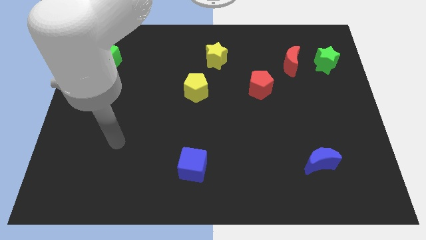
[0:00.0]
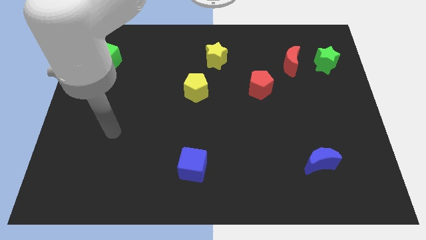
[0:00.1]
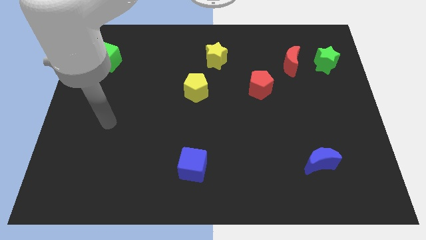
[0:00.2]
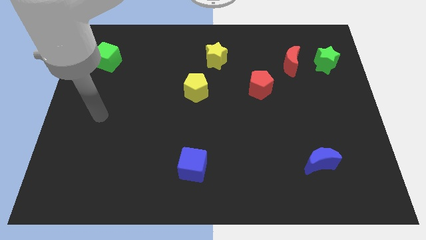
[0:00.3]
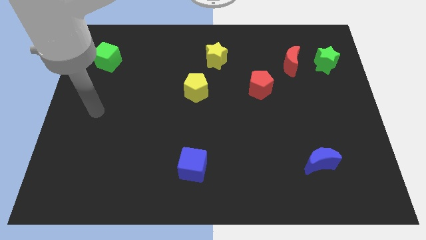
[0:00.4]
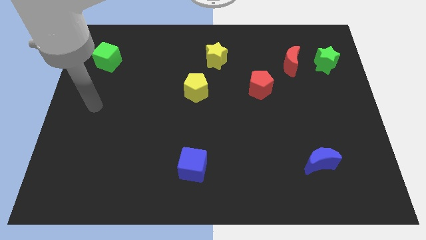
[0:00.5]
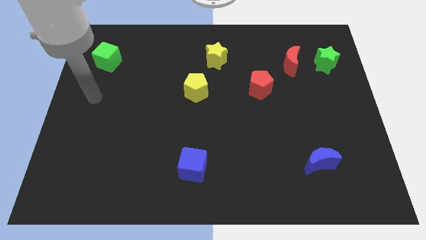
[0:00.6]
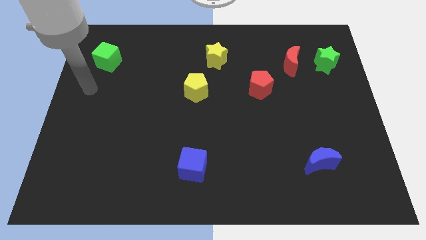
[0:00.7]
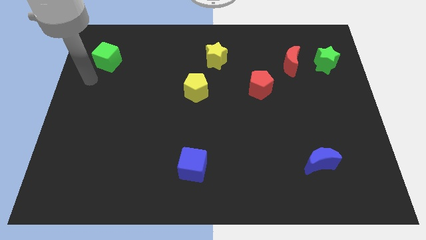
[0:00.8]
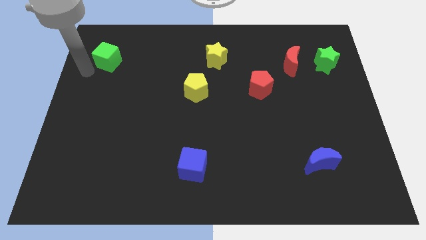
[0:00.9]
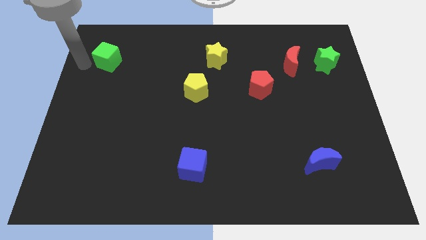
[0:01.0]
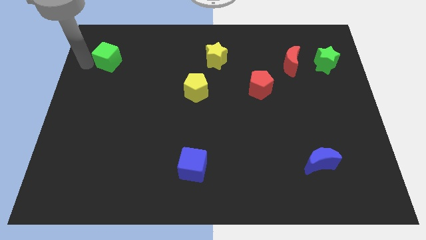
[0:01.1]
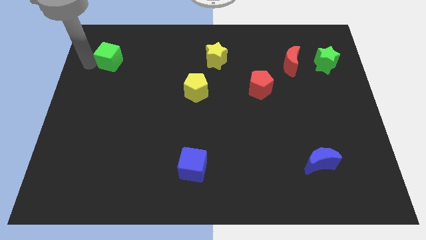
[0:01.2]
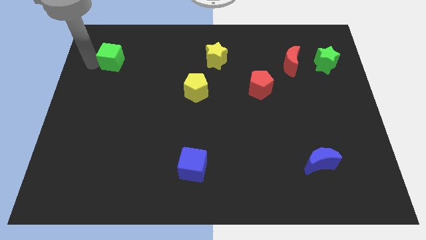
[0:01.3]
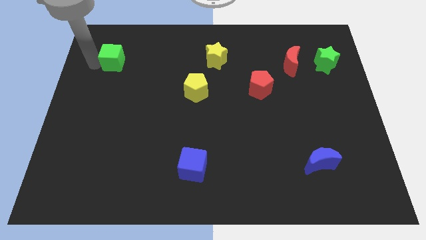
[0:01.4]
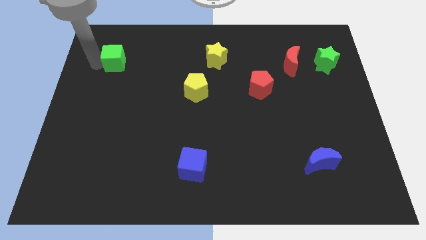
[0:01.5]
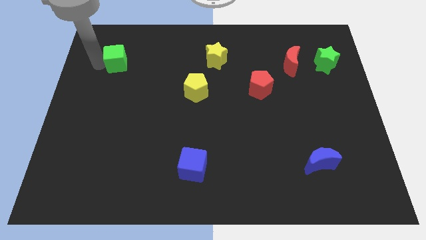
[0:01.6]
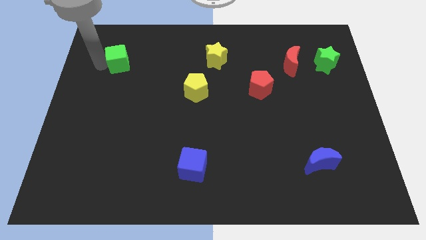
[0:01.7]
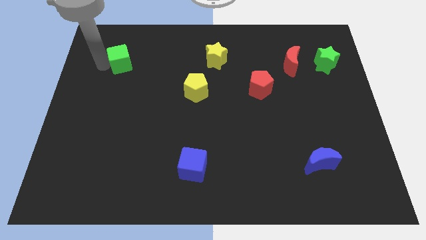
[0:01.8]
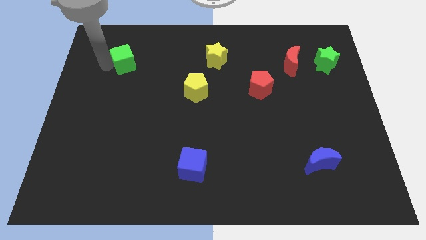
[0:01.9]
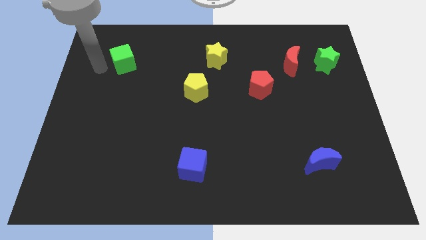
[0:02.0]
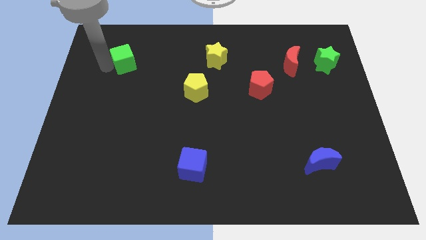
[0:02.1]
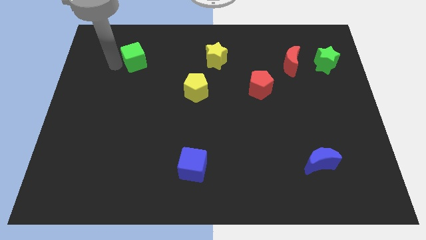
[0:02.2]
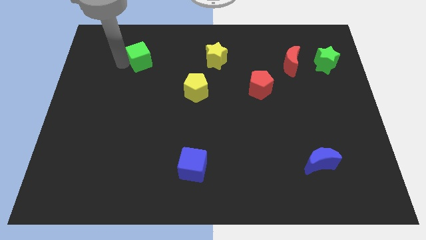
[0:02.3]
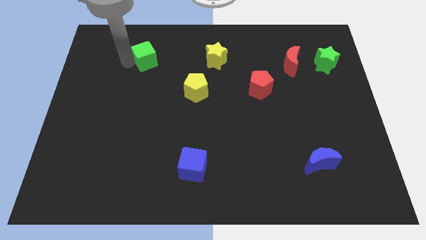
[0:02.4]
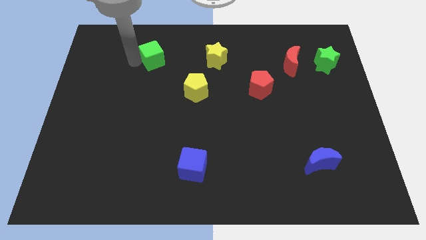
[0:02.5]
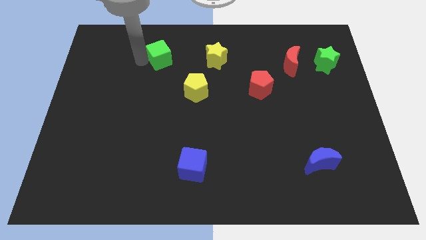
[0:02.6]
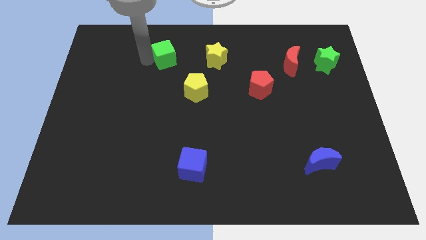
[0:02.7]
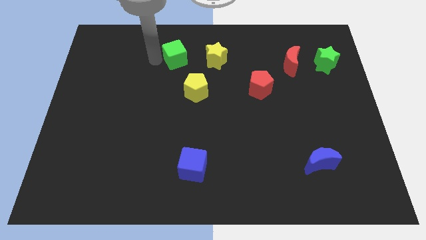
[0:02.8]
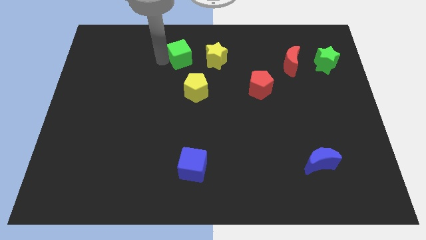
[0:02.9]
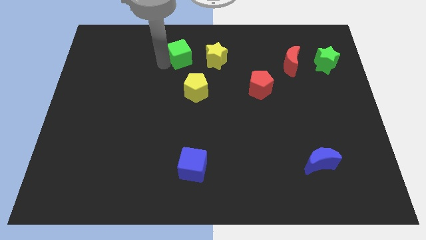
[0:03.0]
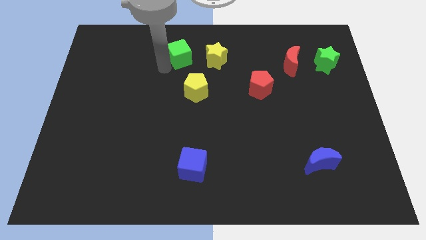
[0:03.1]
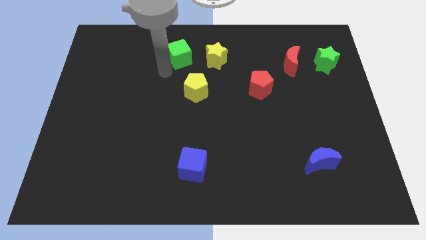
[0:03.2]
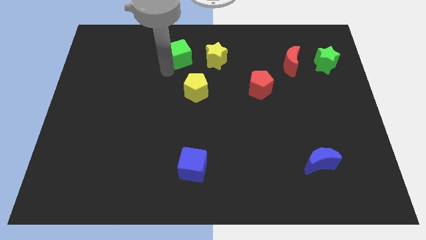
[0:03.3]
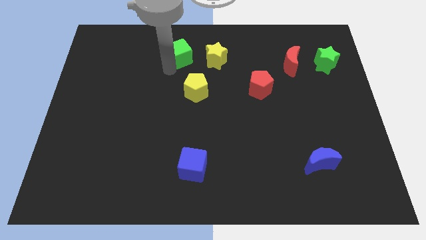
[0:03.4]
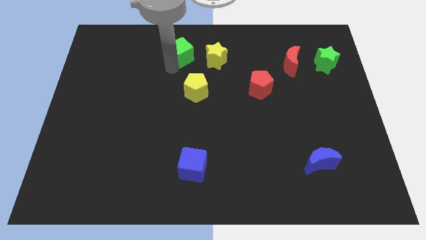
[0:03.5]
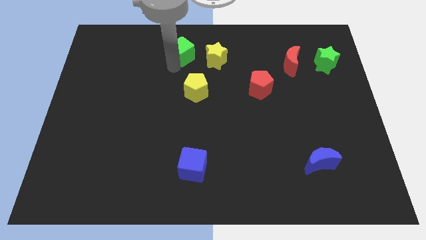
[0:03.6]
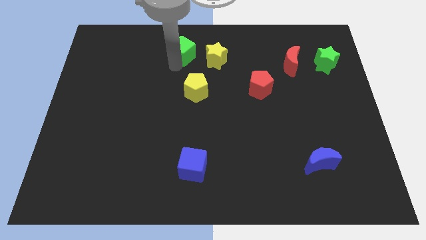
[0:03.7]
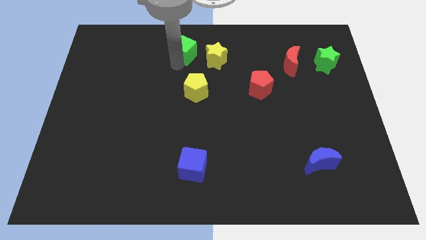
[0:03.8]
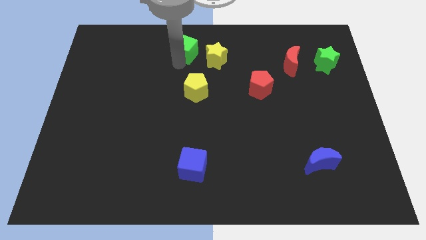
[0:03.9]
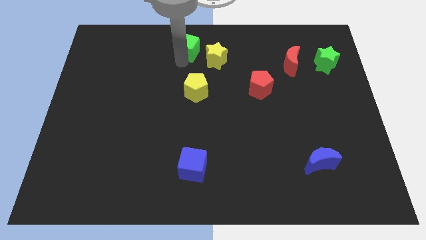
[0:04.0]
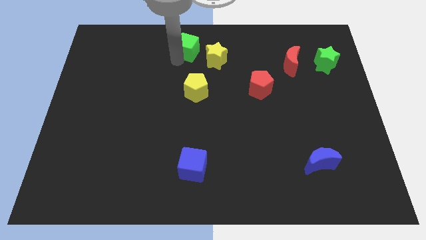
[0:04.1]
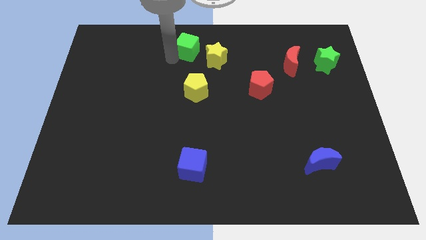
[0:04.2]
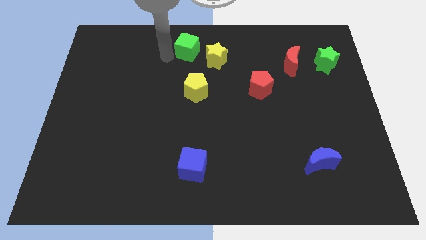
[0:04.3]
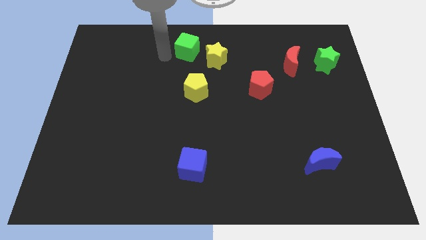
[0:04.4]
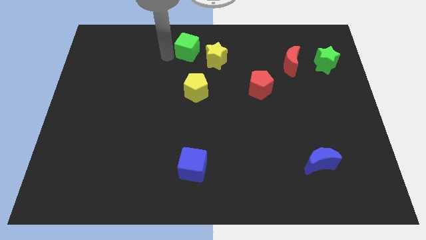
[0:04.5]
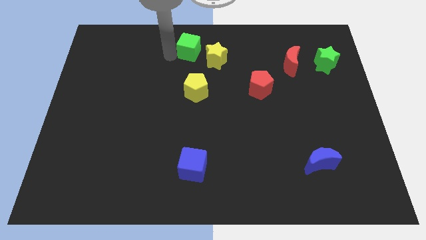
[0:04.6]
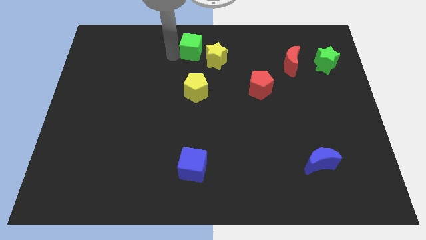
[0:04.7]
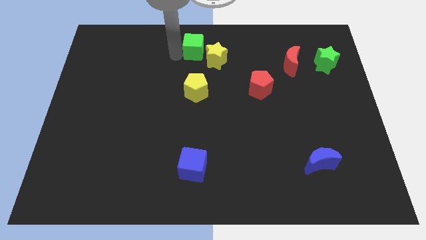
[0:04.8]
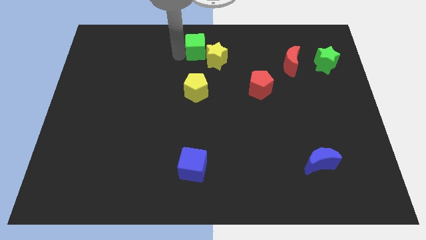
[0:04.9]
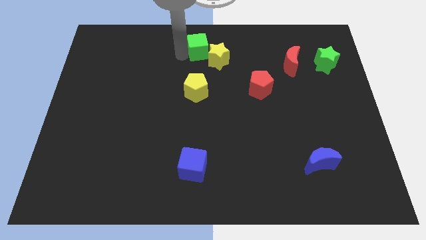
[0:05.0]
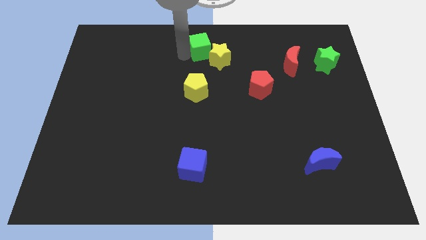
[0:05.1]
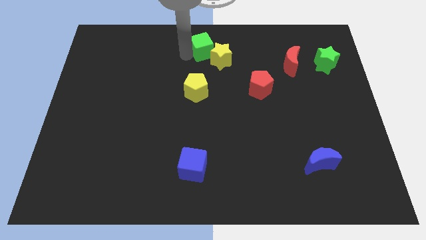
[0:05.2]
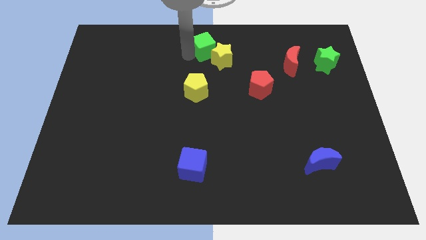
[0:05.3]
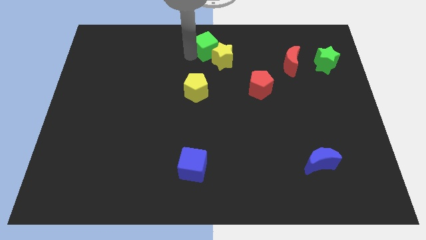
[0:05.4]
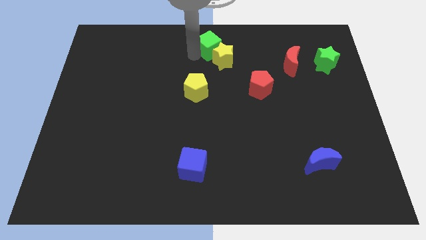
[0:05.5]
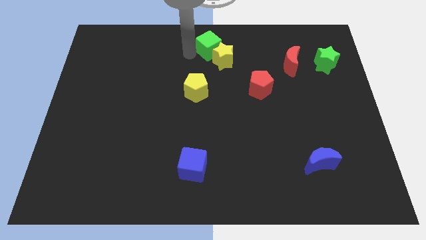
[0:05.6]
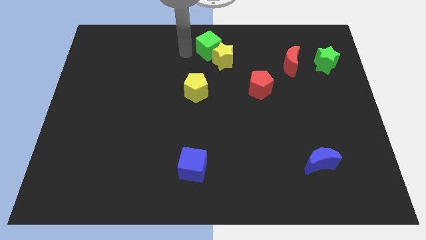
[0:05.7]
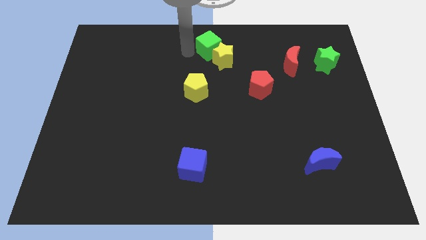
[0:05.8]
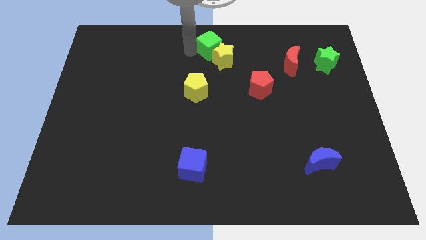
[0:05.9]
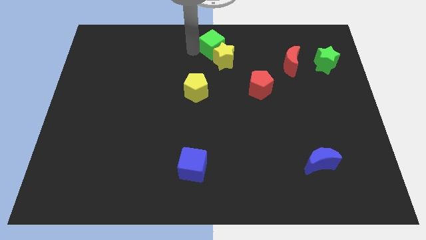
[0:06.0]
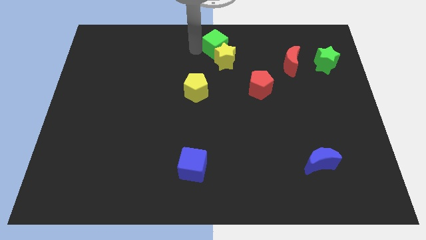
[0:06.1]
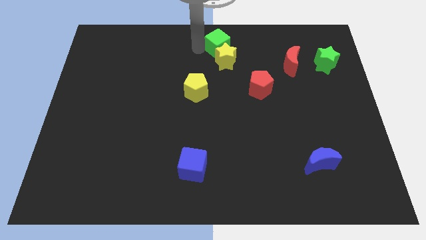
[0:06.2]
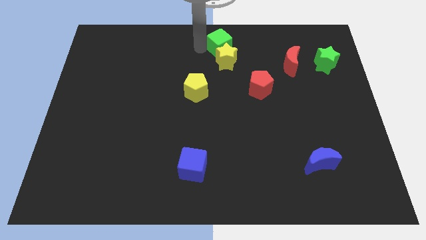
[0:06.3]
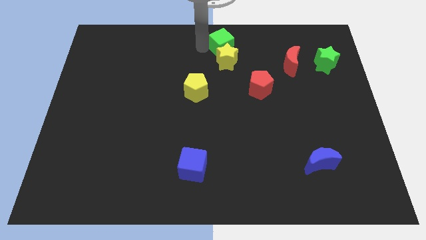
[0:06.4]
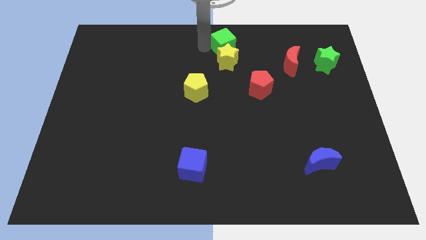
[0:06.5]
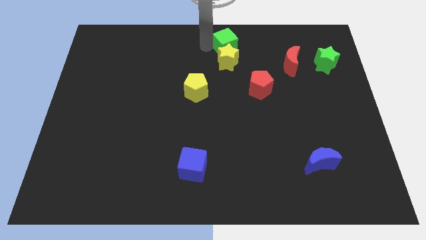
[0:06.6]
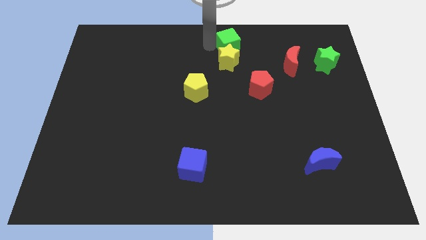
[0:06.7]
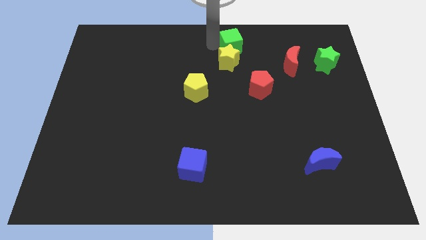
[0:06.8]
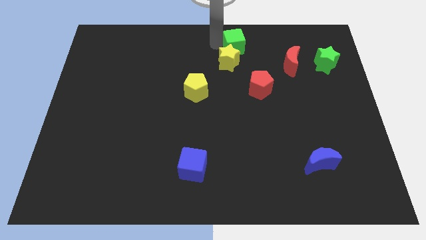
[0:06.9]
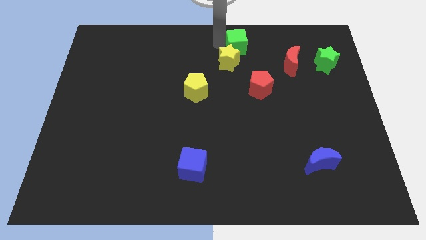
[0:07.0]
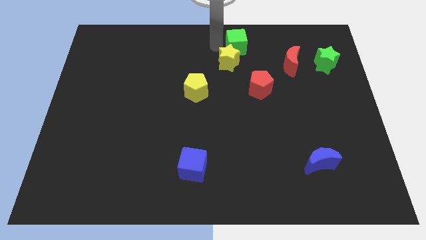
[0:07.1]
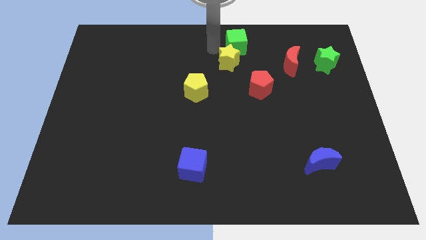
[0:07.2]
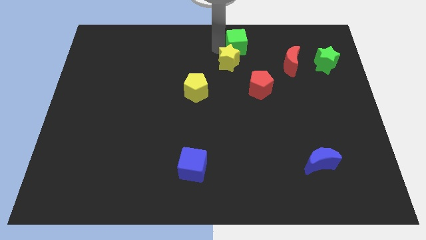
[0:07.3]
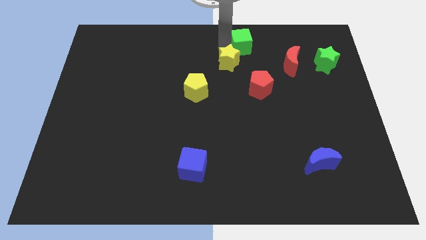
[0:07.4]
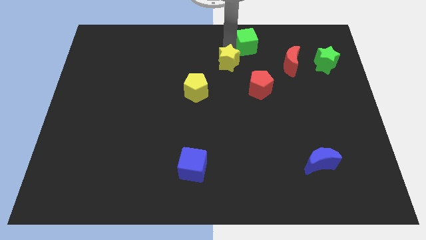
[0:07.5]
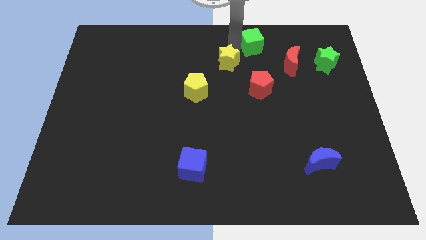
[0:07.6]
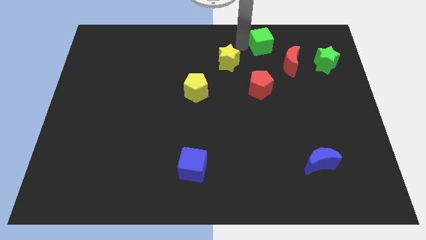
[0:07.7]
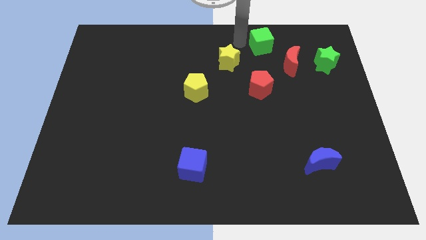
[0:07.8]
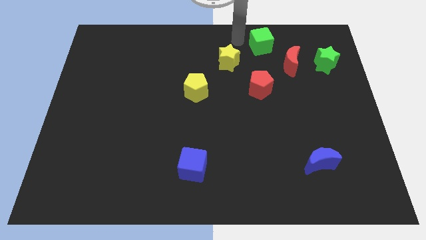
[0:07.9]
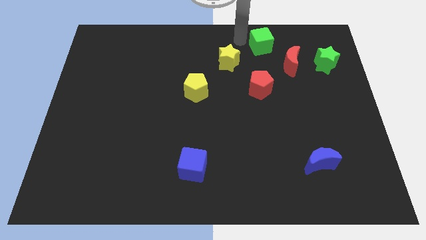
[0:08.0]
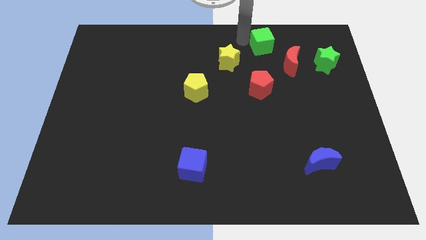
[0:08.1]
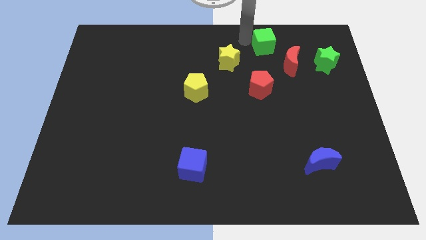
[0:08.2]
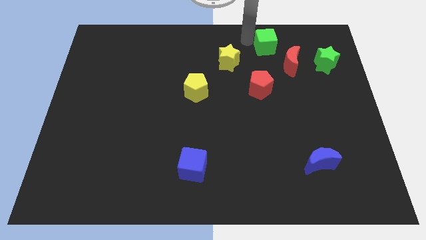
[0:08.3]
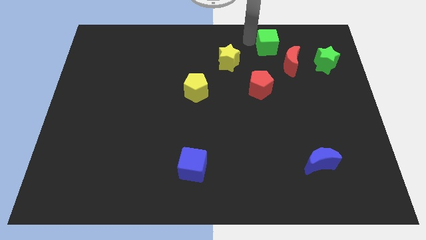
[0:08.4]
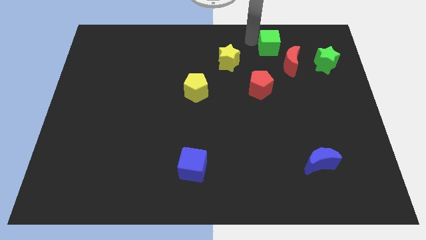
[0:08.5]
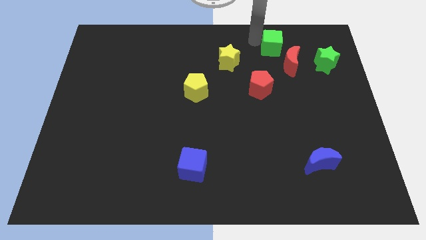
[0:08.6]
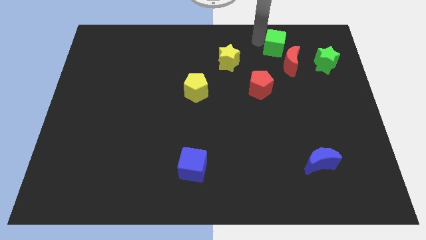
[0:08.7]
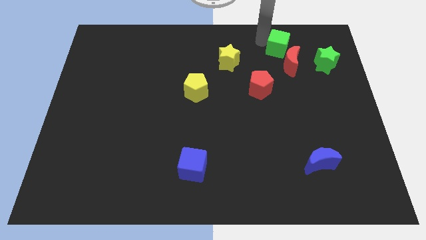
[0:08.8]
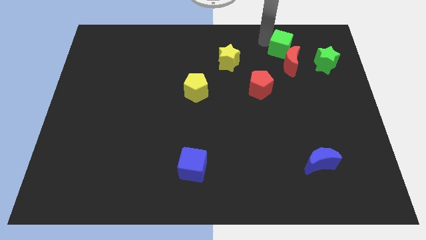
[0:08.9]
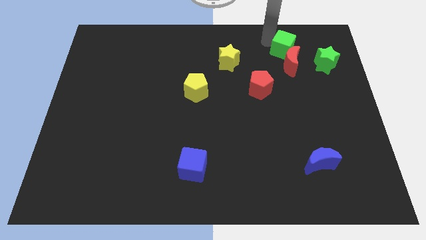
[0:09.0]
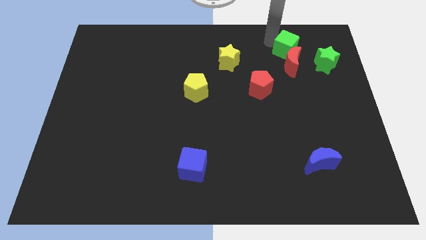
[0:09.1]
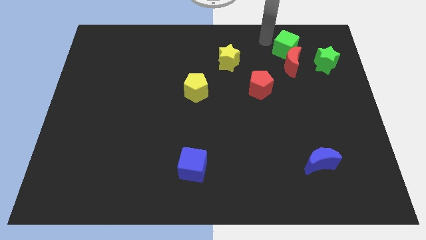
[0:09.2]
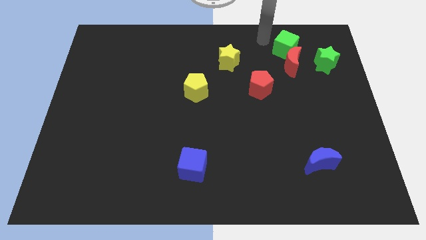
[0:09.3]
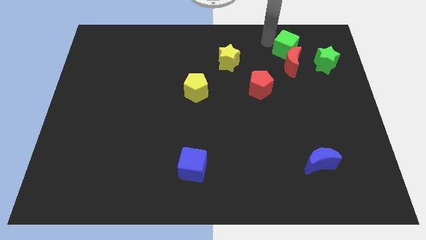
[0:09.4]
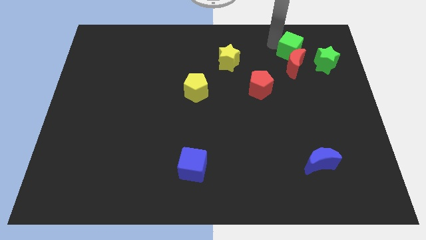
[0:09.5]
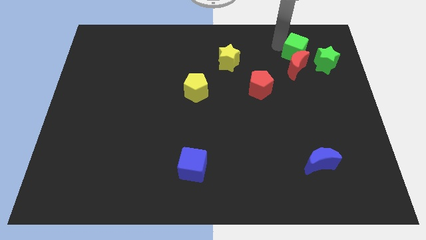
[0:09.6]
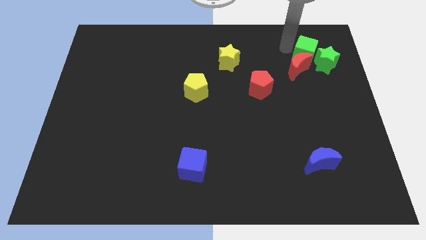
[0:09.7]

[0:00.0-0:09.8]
move the green cube to the green star
